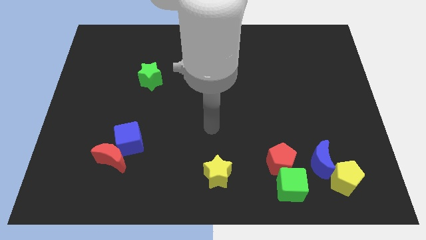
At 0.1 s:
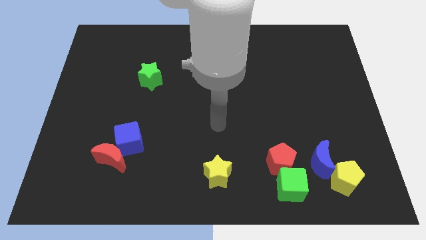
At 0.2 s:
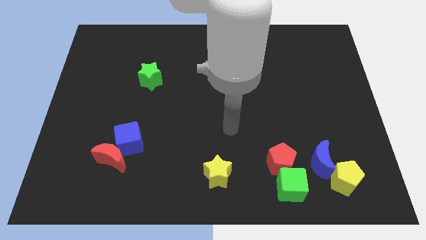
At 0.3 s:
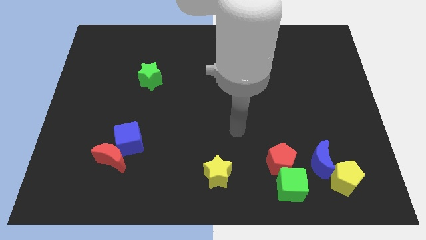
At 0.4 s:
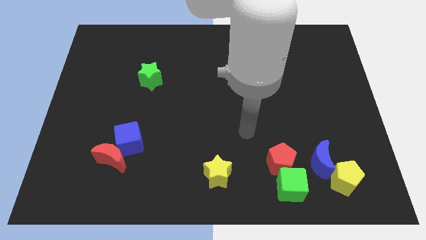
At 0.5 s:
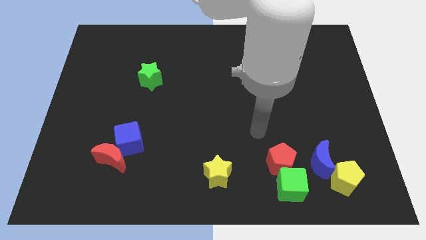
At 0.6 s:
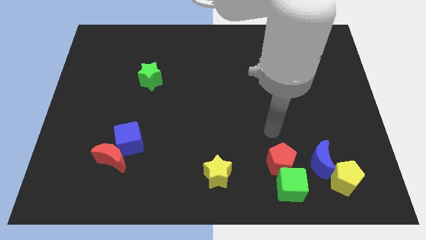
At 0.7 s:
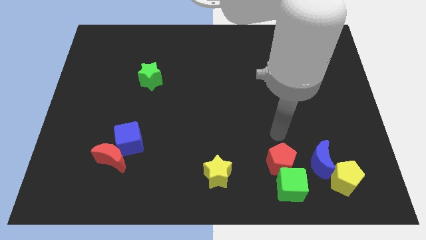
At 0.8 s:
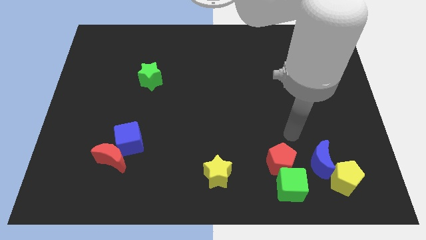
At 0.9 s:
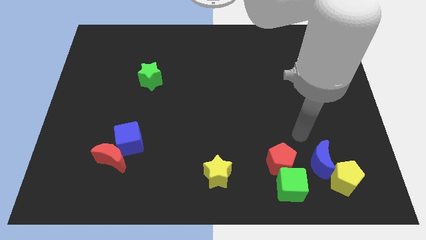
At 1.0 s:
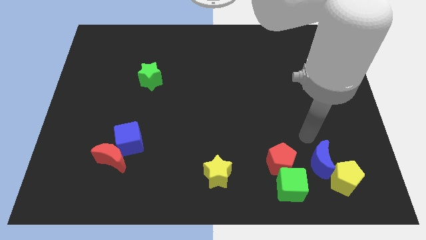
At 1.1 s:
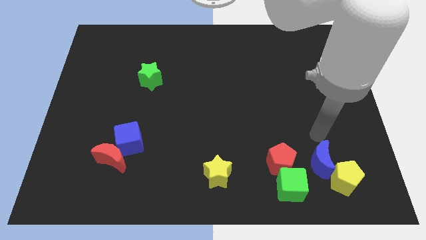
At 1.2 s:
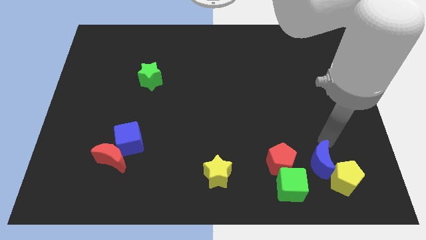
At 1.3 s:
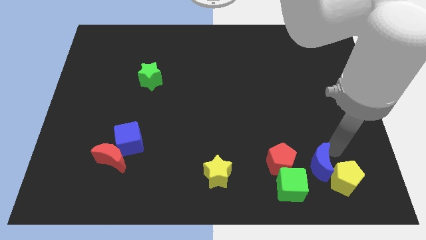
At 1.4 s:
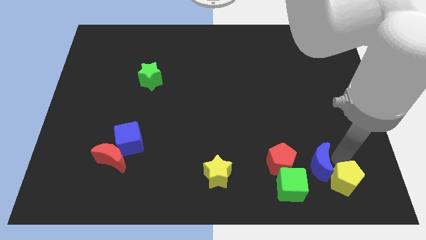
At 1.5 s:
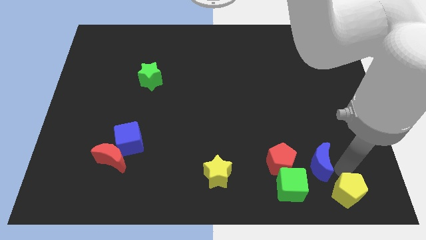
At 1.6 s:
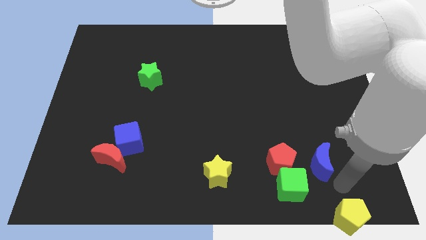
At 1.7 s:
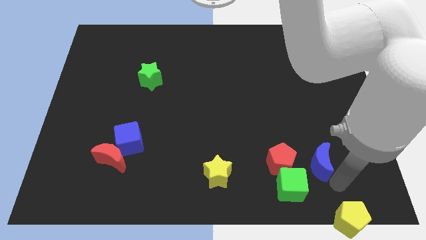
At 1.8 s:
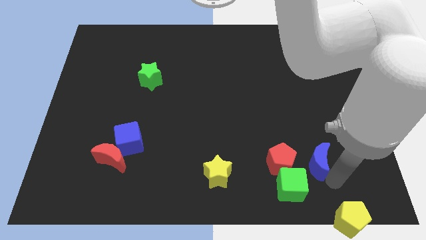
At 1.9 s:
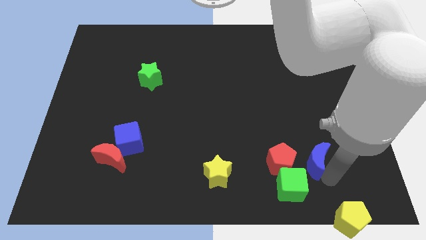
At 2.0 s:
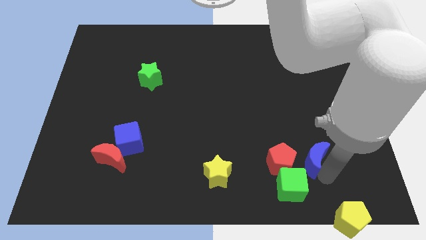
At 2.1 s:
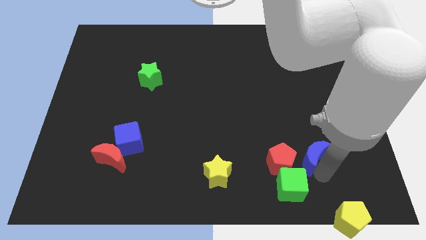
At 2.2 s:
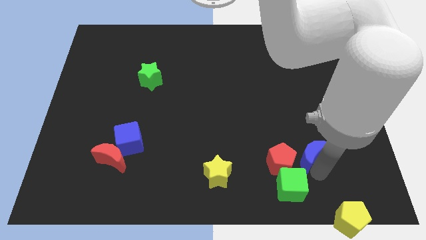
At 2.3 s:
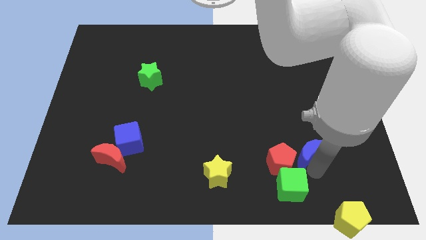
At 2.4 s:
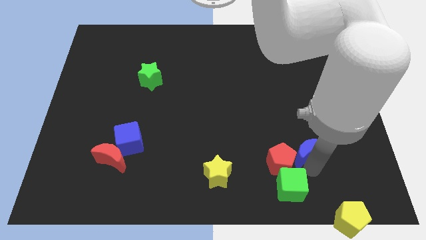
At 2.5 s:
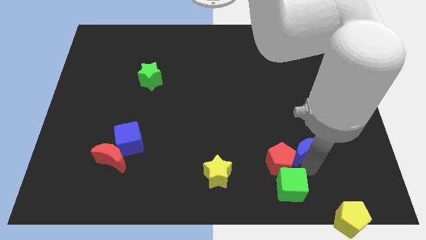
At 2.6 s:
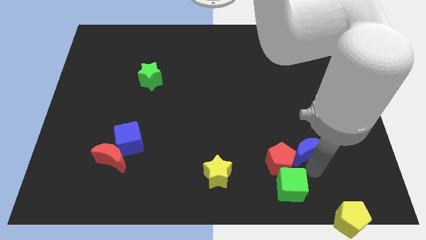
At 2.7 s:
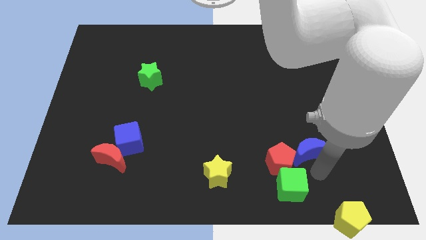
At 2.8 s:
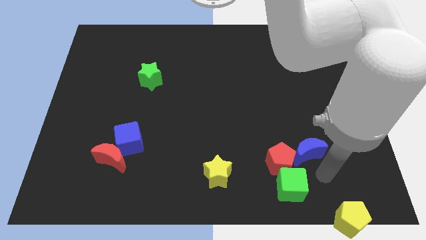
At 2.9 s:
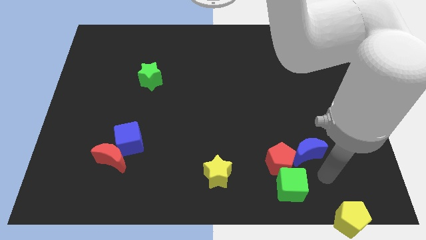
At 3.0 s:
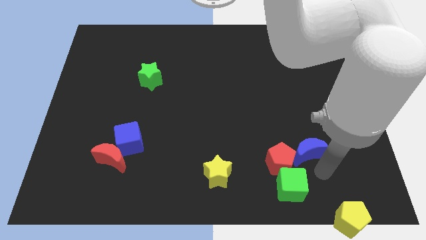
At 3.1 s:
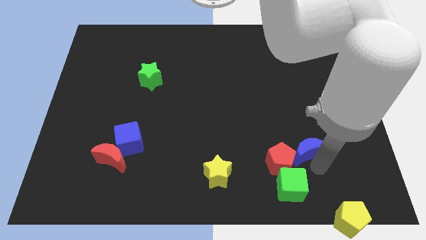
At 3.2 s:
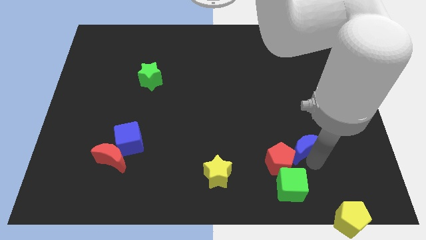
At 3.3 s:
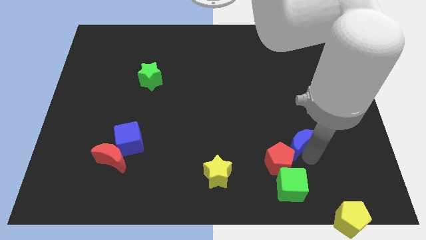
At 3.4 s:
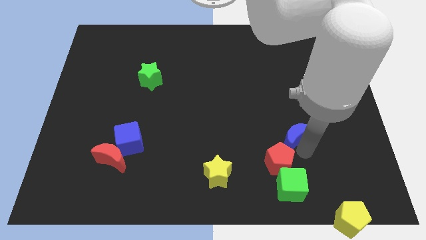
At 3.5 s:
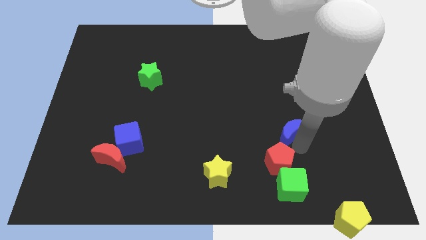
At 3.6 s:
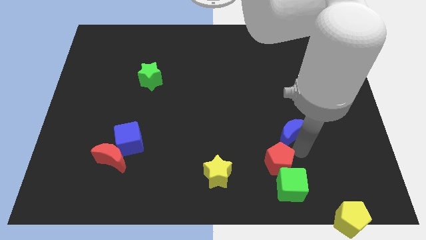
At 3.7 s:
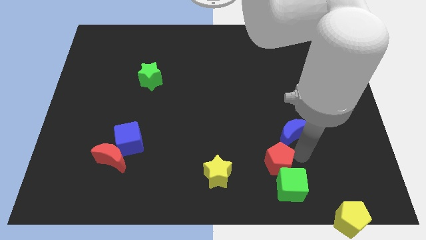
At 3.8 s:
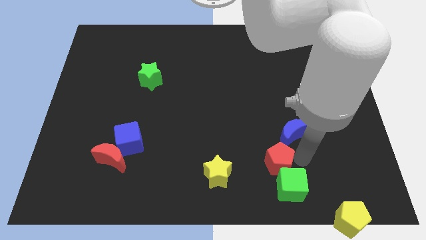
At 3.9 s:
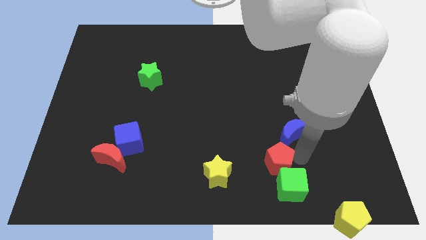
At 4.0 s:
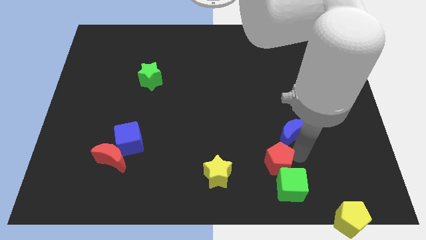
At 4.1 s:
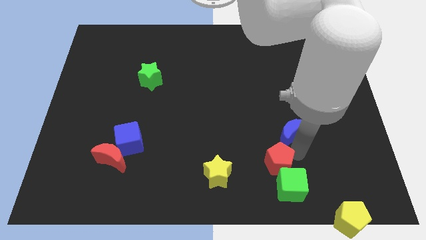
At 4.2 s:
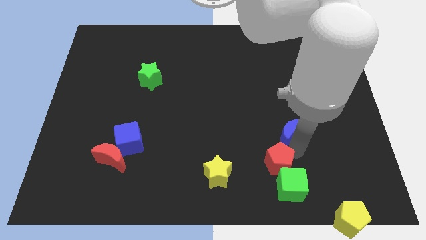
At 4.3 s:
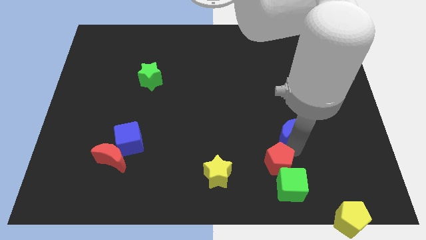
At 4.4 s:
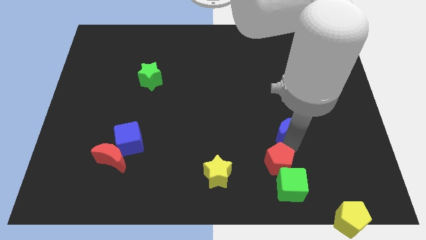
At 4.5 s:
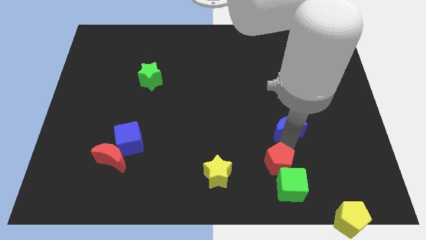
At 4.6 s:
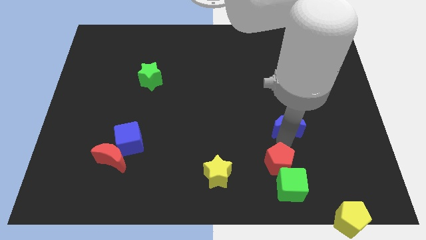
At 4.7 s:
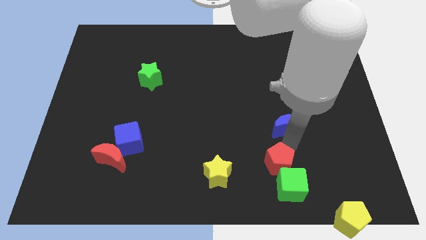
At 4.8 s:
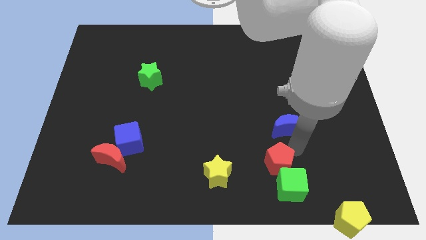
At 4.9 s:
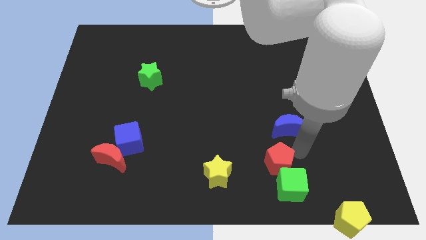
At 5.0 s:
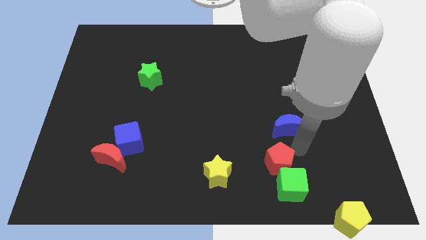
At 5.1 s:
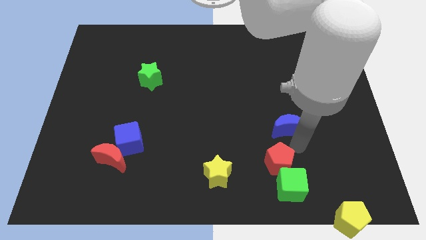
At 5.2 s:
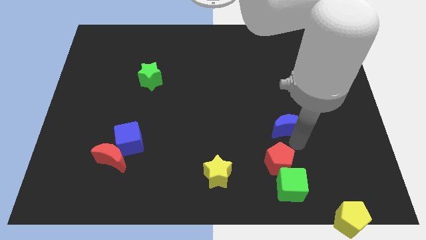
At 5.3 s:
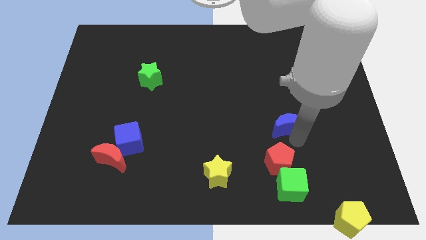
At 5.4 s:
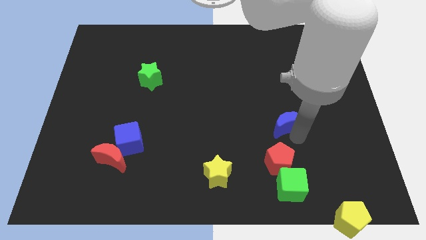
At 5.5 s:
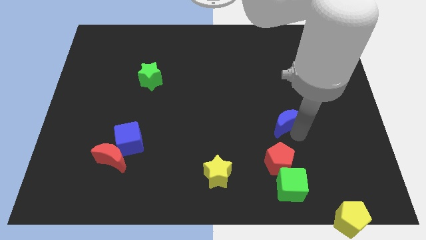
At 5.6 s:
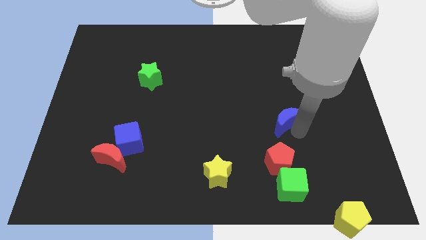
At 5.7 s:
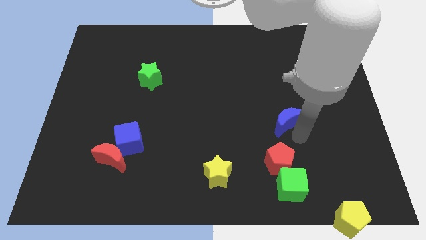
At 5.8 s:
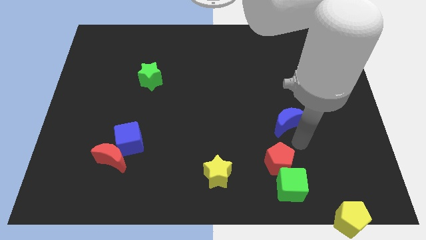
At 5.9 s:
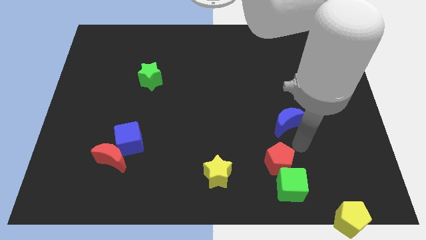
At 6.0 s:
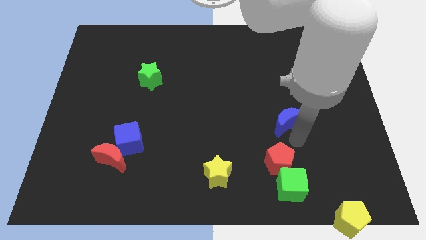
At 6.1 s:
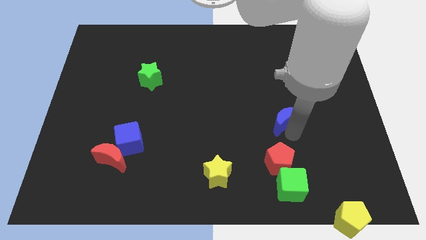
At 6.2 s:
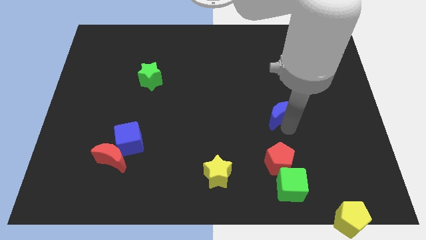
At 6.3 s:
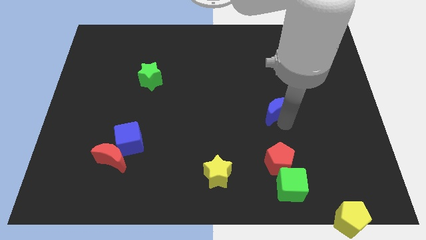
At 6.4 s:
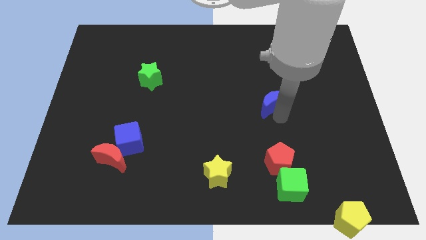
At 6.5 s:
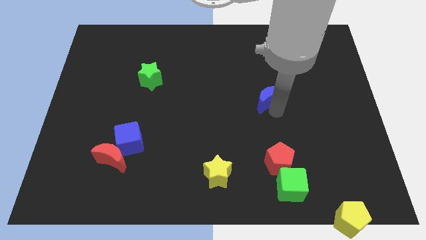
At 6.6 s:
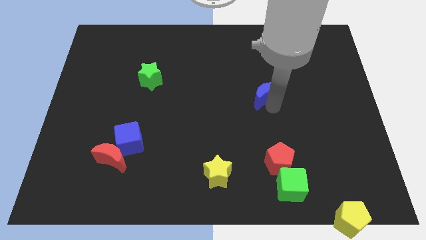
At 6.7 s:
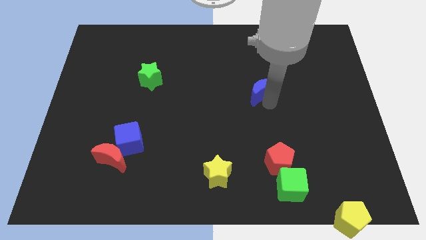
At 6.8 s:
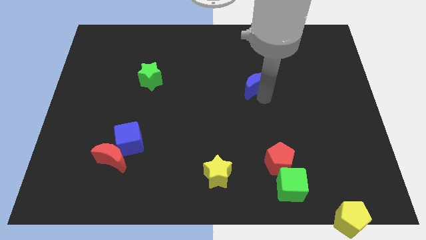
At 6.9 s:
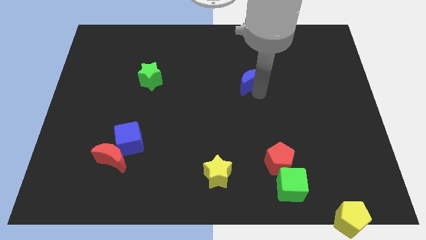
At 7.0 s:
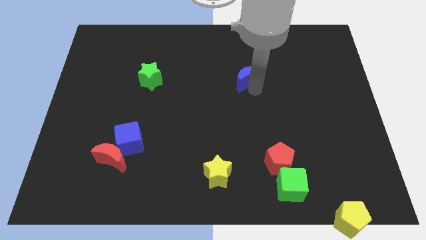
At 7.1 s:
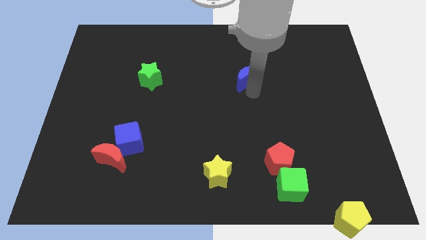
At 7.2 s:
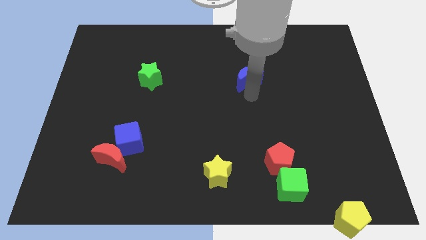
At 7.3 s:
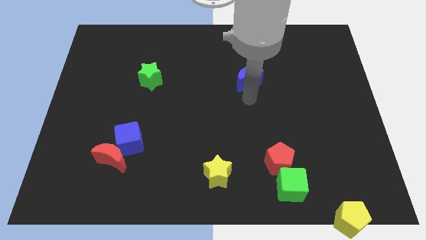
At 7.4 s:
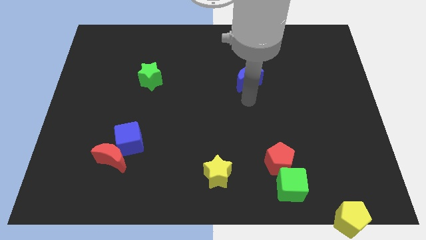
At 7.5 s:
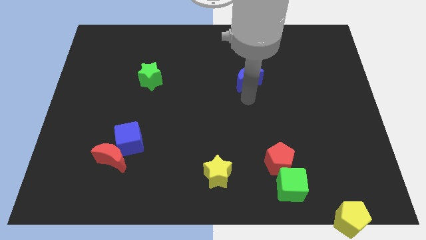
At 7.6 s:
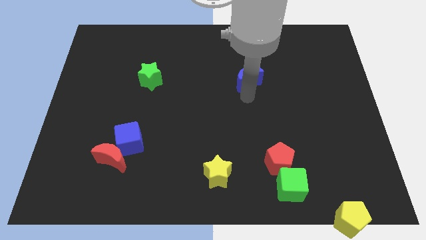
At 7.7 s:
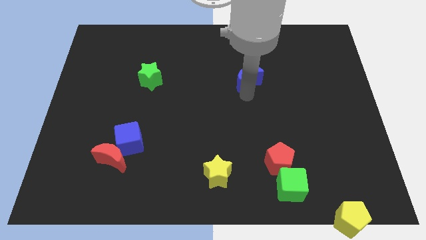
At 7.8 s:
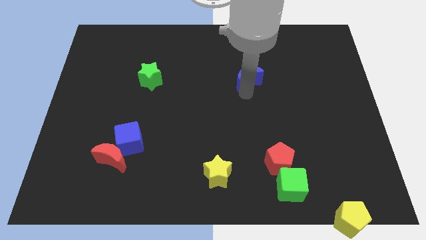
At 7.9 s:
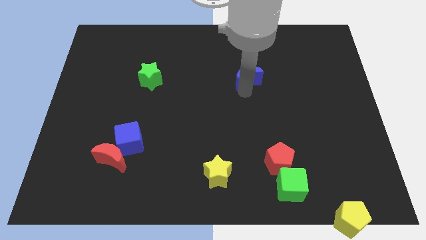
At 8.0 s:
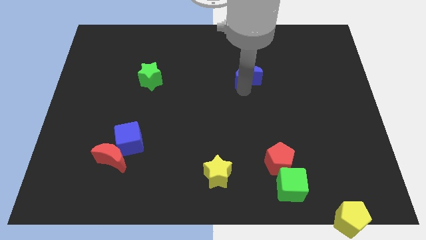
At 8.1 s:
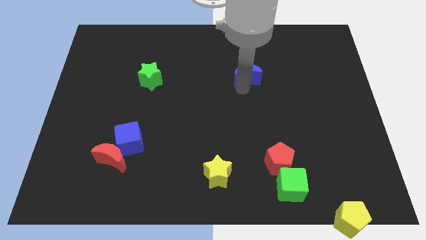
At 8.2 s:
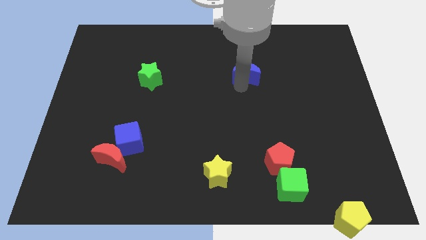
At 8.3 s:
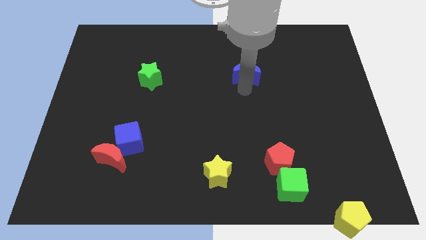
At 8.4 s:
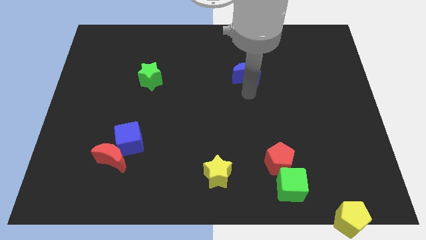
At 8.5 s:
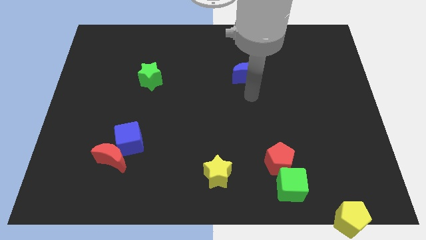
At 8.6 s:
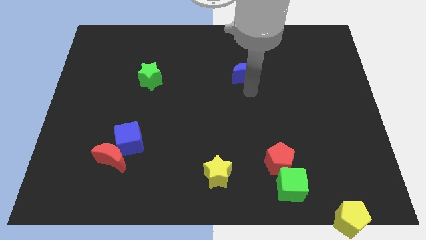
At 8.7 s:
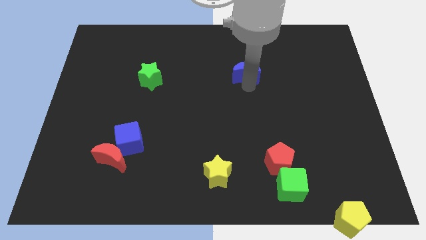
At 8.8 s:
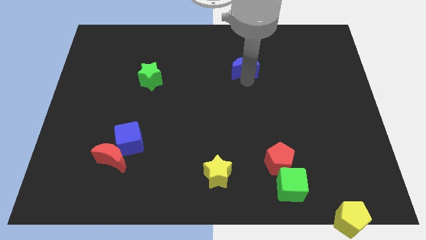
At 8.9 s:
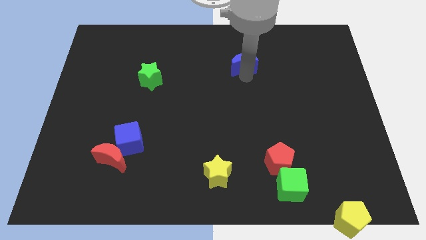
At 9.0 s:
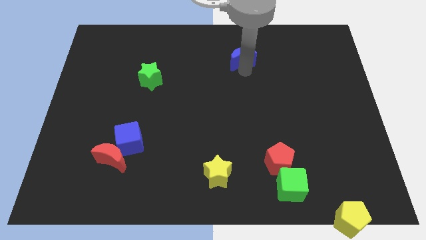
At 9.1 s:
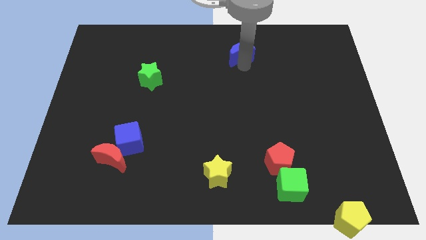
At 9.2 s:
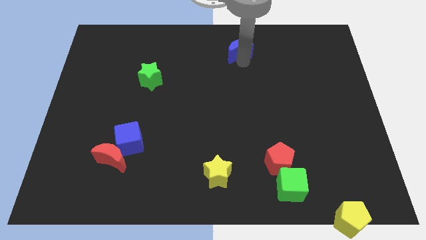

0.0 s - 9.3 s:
slide the blue moon to the top
